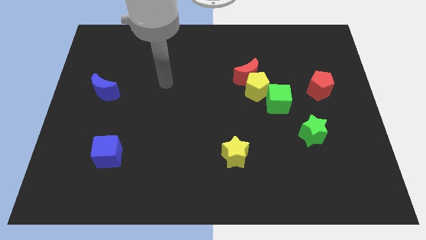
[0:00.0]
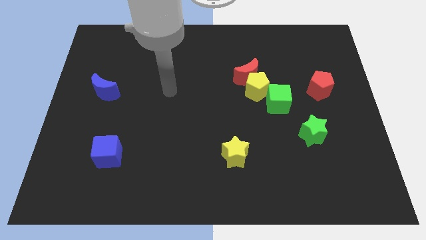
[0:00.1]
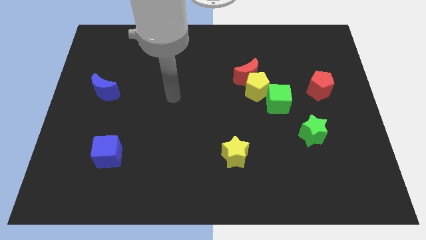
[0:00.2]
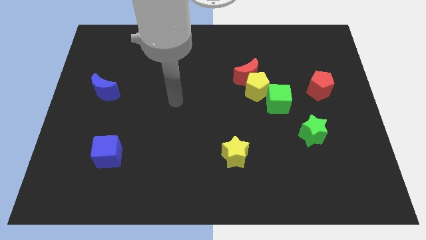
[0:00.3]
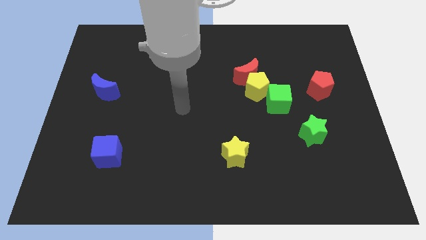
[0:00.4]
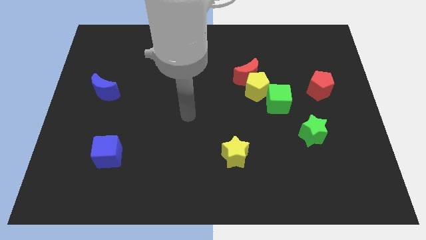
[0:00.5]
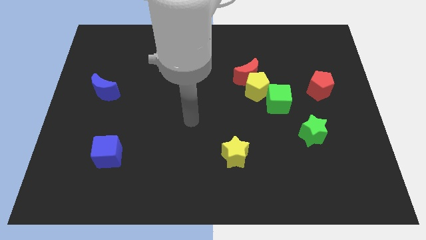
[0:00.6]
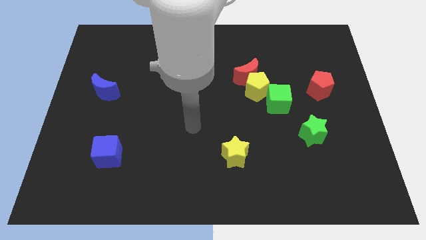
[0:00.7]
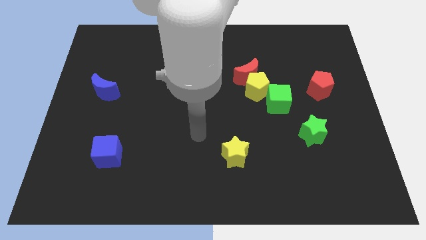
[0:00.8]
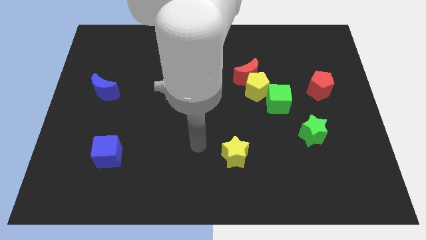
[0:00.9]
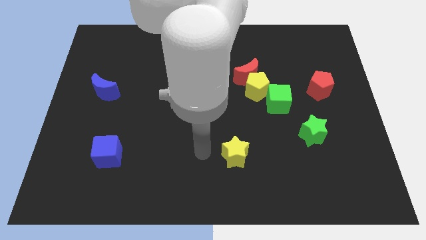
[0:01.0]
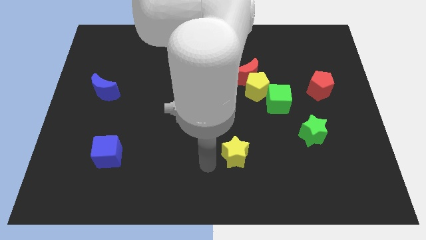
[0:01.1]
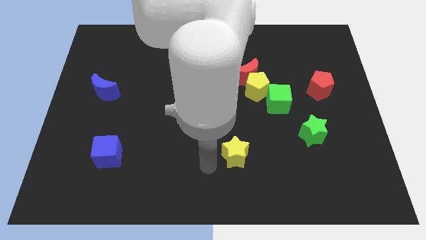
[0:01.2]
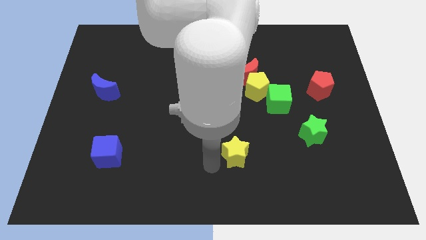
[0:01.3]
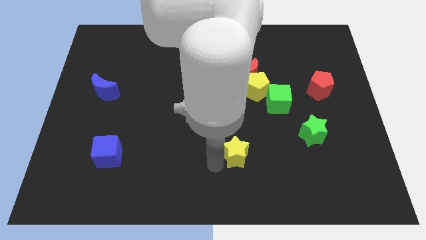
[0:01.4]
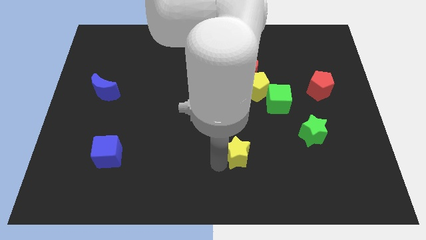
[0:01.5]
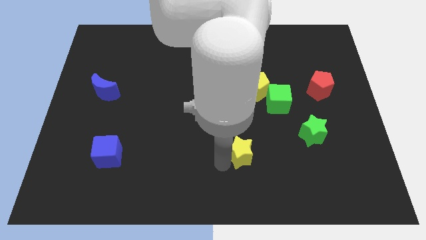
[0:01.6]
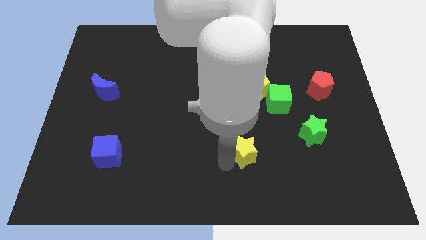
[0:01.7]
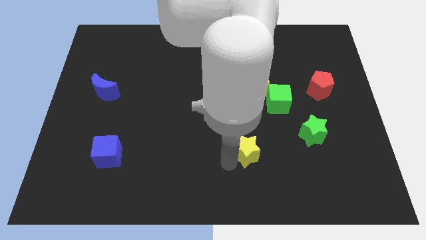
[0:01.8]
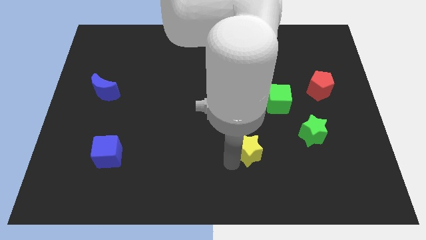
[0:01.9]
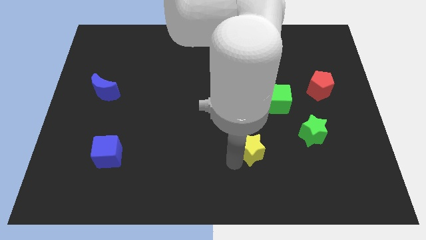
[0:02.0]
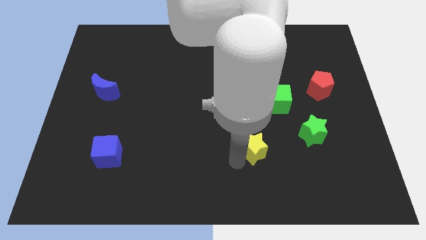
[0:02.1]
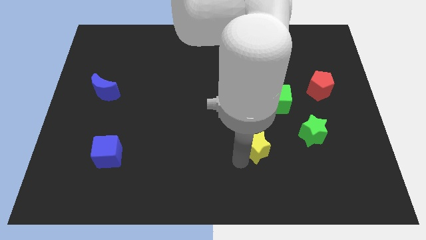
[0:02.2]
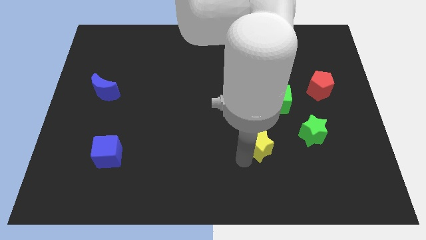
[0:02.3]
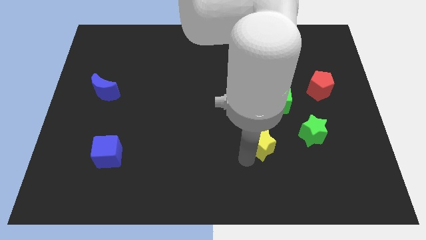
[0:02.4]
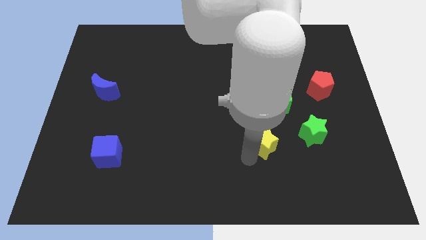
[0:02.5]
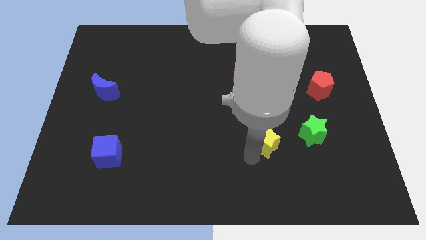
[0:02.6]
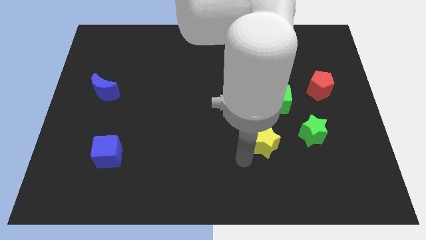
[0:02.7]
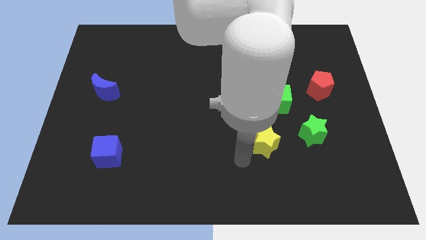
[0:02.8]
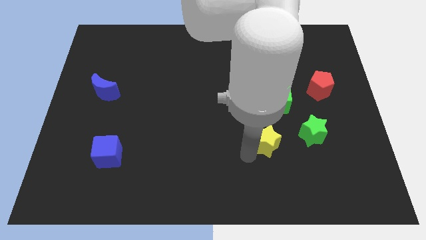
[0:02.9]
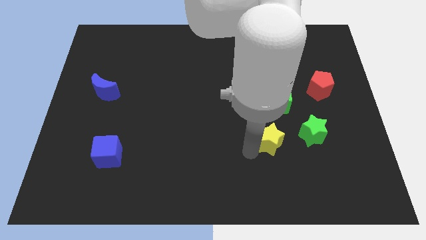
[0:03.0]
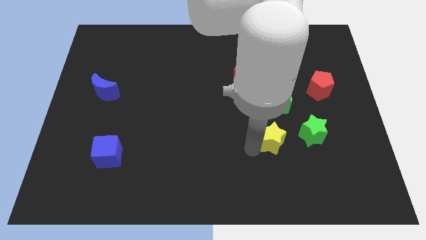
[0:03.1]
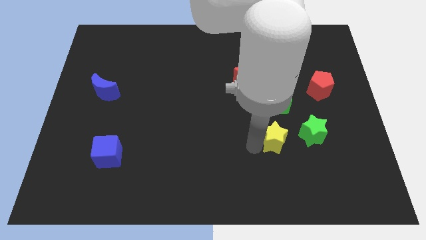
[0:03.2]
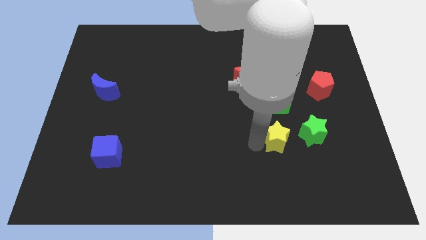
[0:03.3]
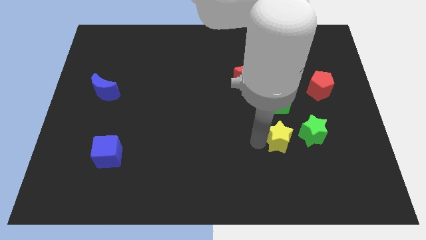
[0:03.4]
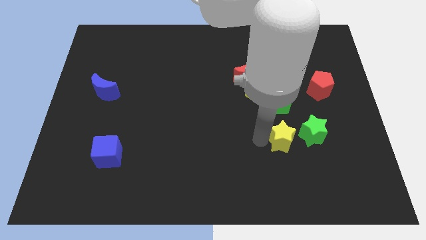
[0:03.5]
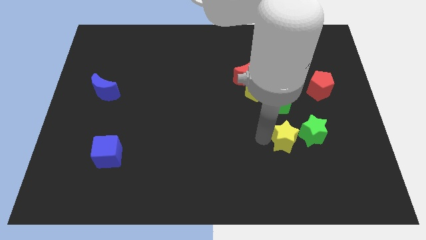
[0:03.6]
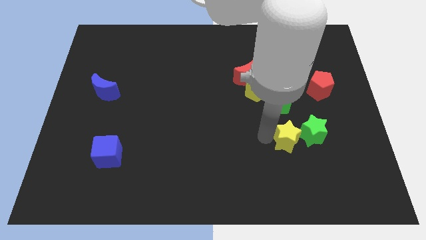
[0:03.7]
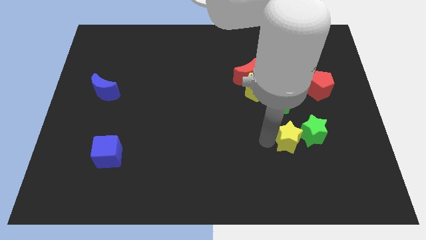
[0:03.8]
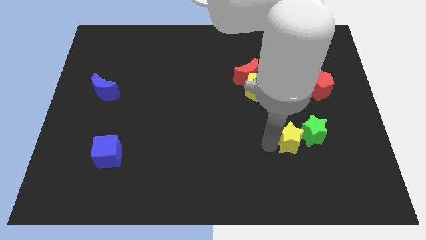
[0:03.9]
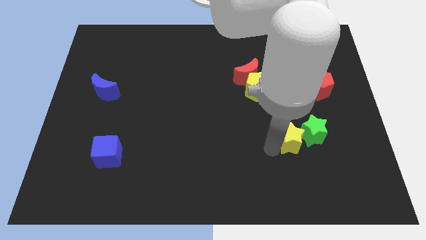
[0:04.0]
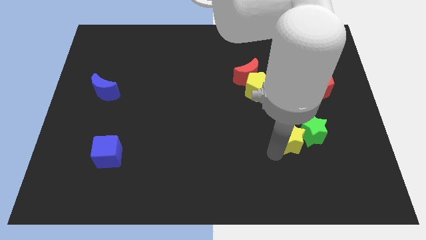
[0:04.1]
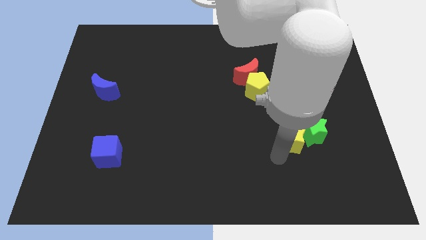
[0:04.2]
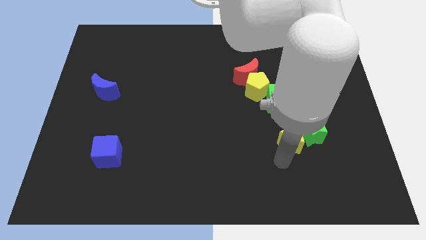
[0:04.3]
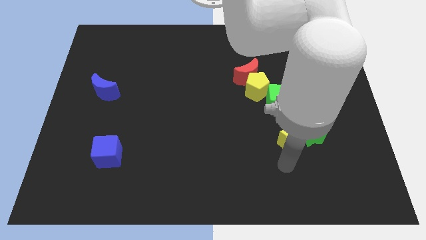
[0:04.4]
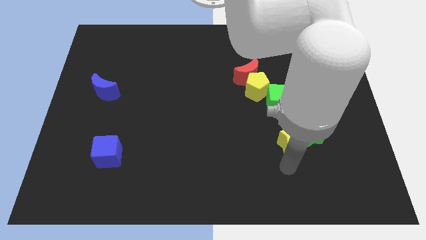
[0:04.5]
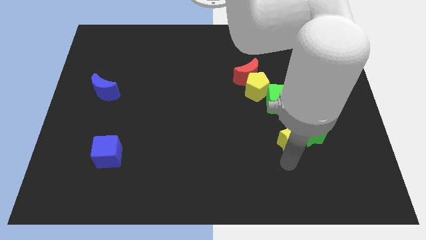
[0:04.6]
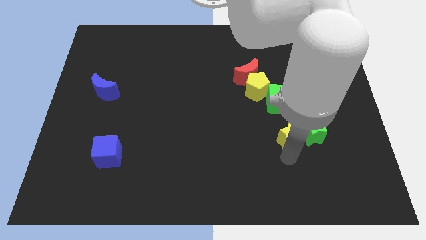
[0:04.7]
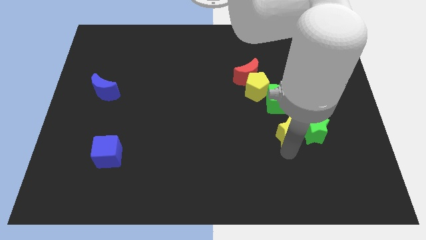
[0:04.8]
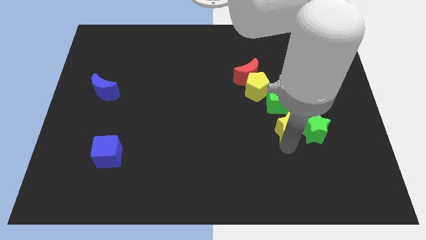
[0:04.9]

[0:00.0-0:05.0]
move the yellow star to the bottom right side of the green cube

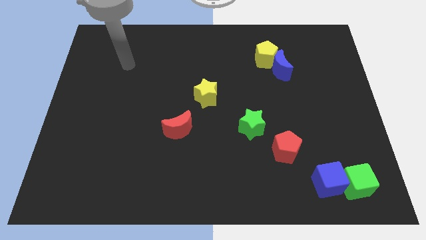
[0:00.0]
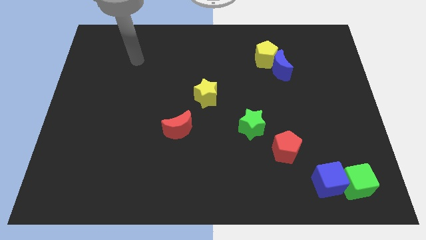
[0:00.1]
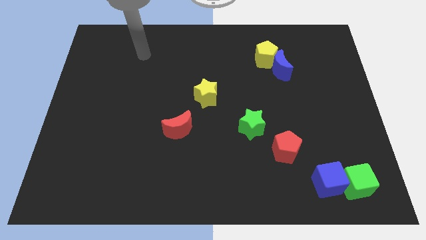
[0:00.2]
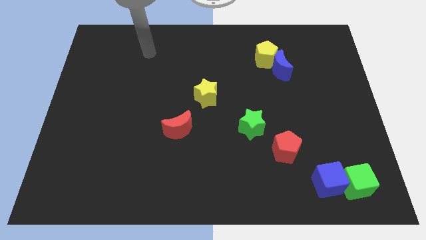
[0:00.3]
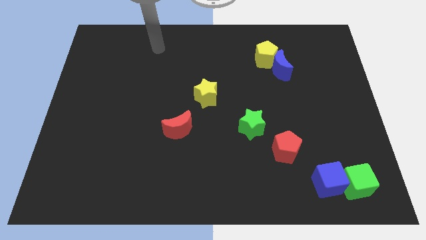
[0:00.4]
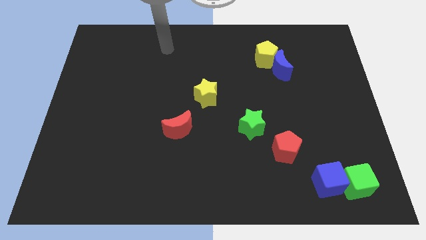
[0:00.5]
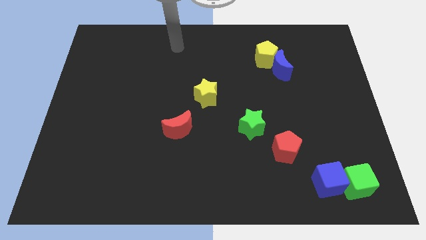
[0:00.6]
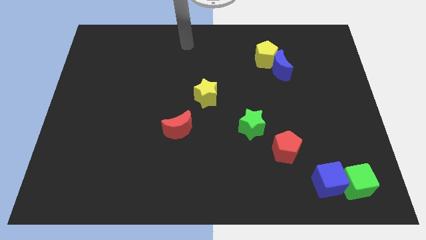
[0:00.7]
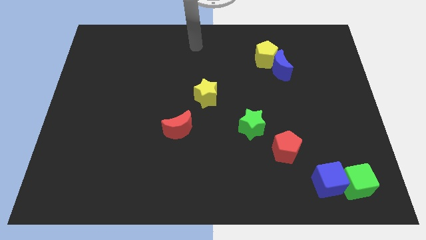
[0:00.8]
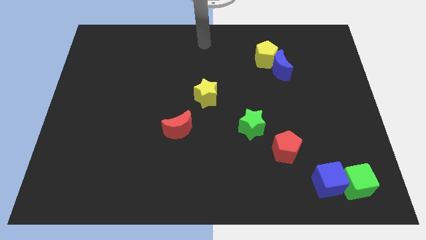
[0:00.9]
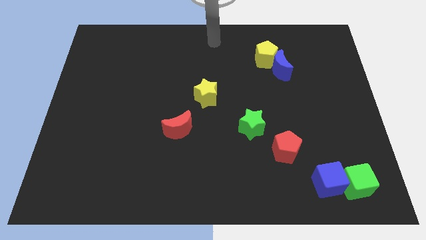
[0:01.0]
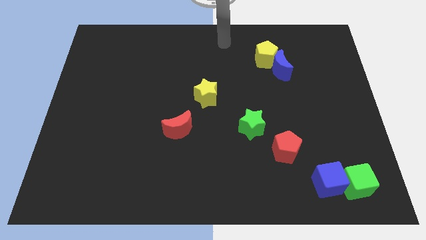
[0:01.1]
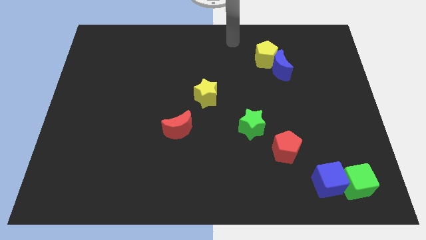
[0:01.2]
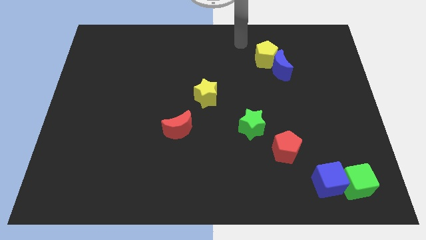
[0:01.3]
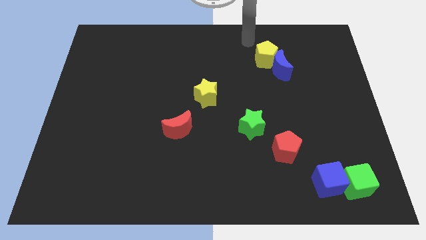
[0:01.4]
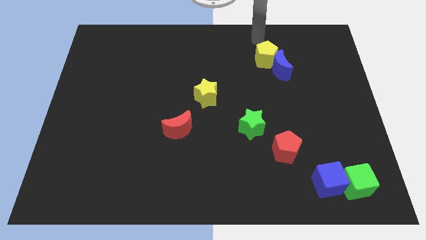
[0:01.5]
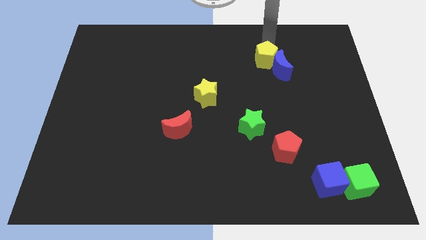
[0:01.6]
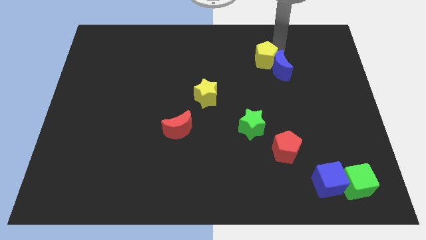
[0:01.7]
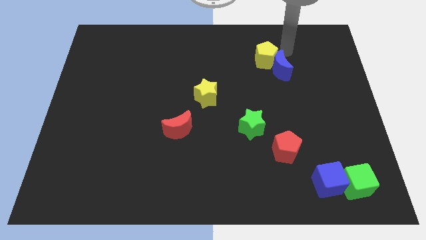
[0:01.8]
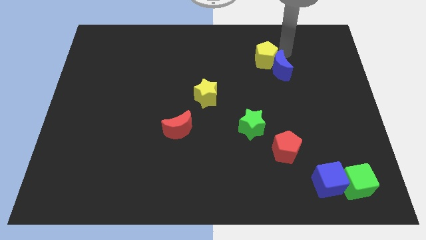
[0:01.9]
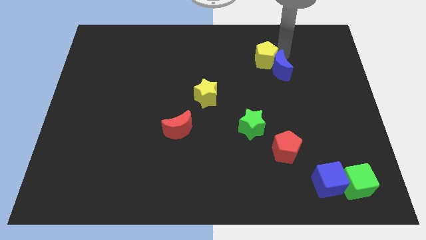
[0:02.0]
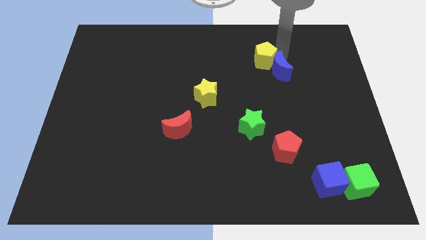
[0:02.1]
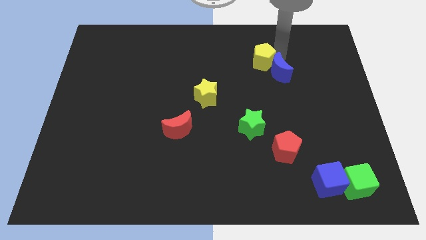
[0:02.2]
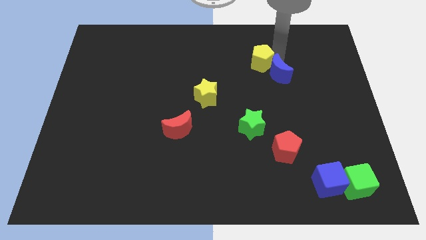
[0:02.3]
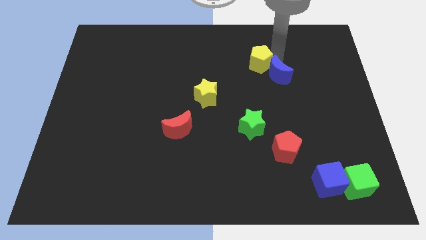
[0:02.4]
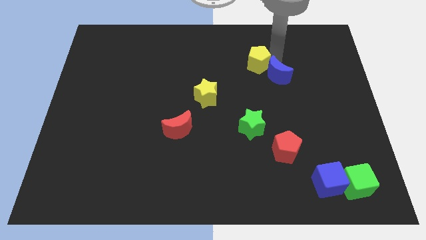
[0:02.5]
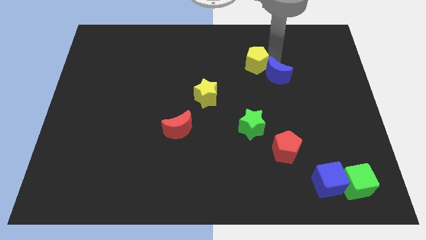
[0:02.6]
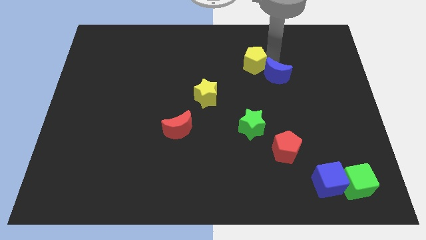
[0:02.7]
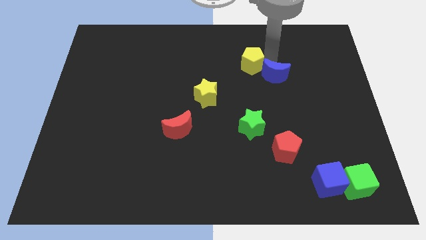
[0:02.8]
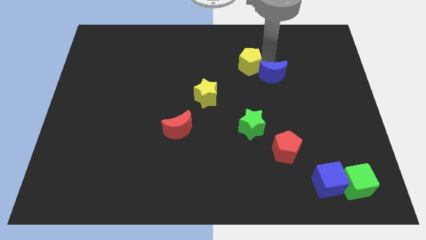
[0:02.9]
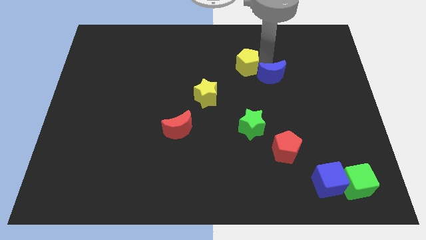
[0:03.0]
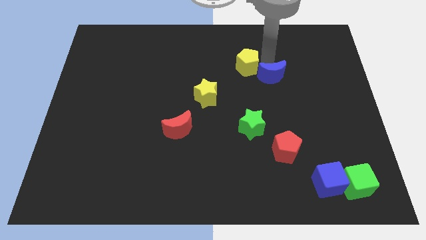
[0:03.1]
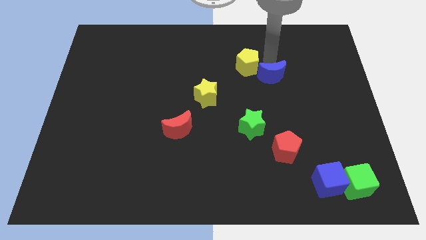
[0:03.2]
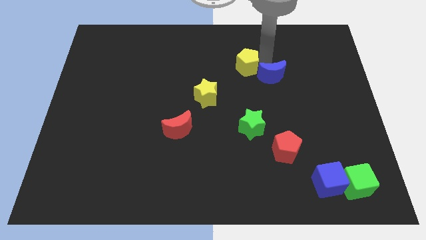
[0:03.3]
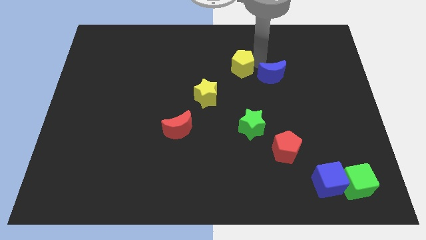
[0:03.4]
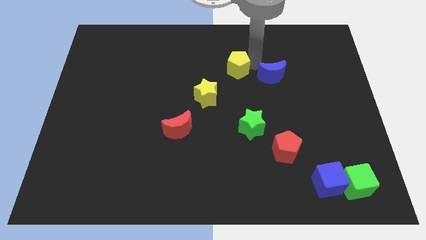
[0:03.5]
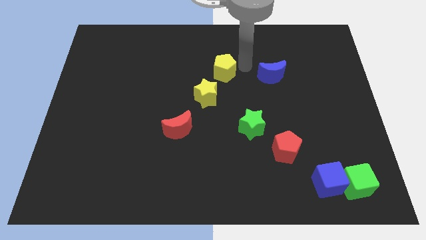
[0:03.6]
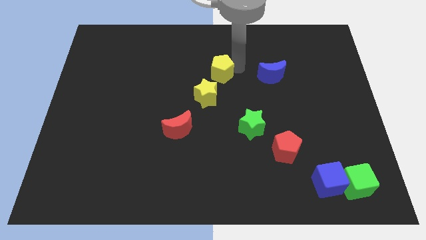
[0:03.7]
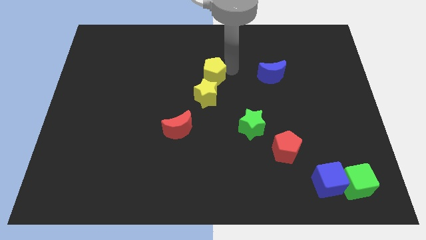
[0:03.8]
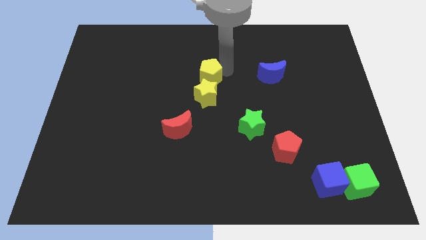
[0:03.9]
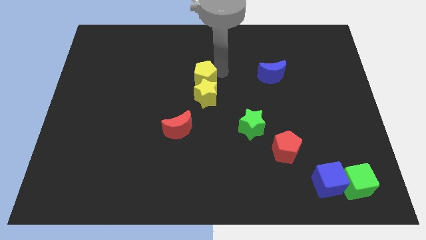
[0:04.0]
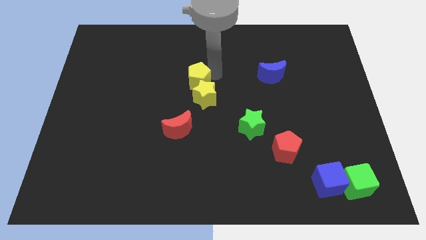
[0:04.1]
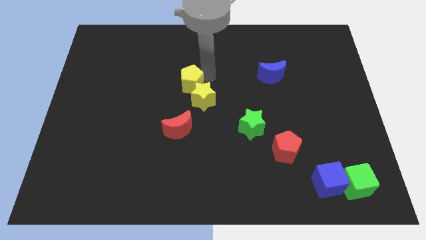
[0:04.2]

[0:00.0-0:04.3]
slide the yellow pentagon above the red moon
